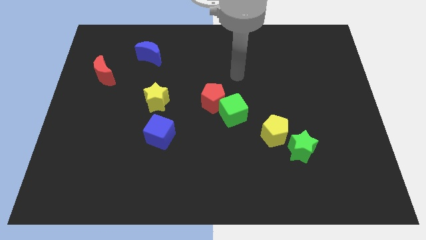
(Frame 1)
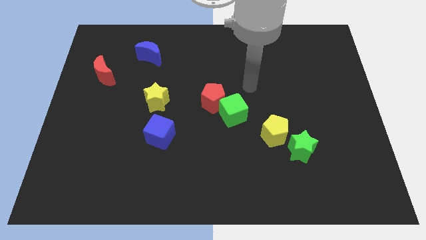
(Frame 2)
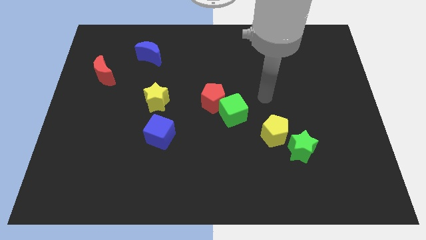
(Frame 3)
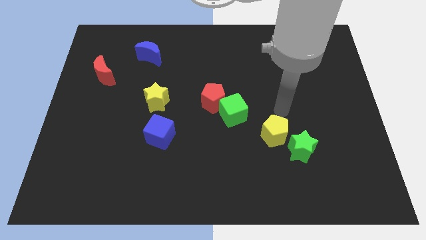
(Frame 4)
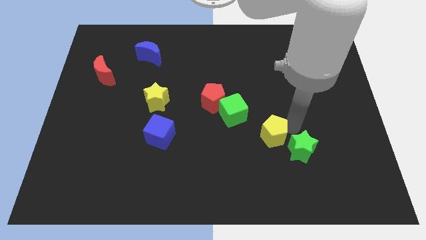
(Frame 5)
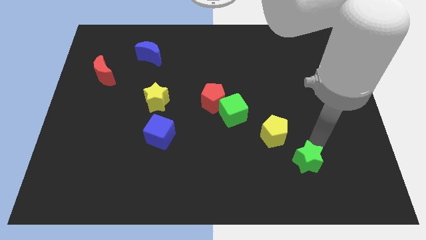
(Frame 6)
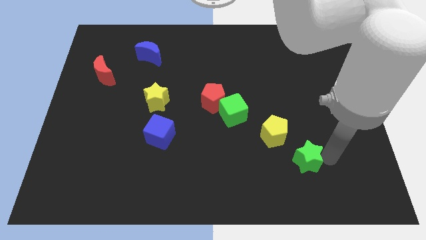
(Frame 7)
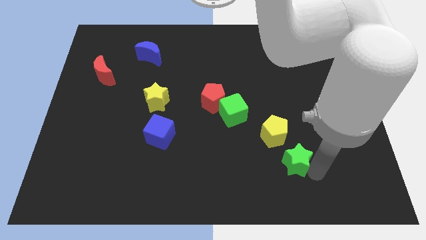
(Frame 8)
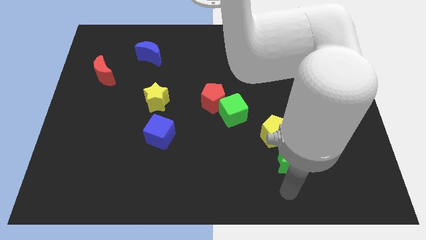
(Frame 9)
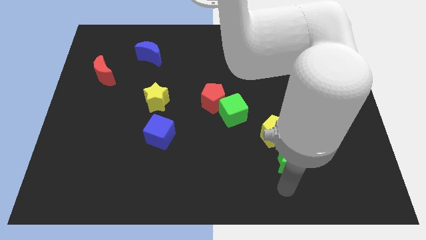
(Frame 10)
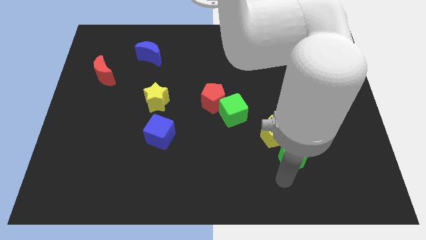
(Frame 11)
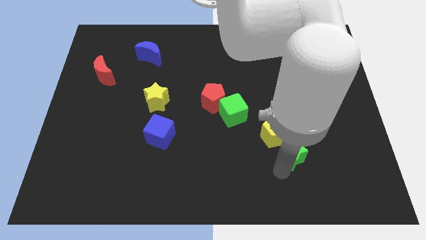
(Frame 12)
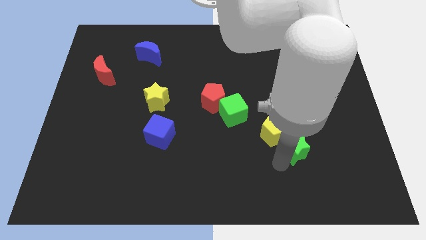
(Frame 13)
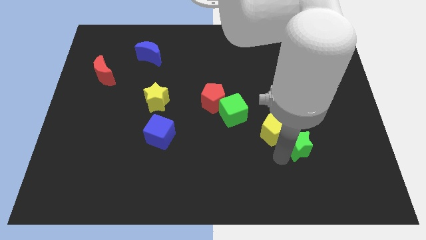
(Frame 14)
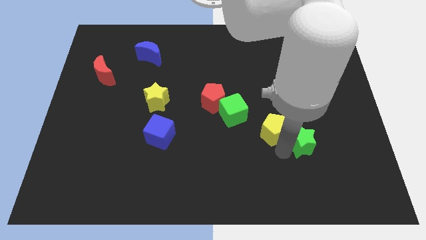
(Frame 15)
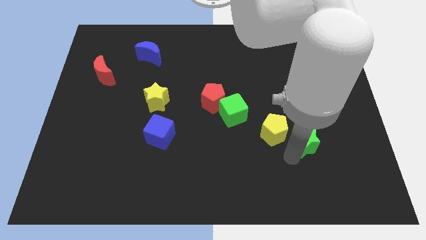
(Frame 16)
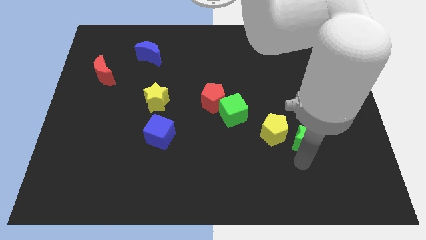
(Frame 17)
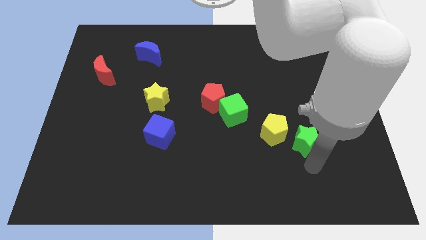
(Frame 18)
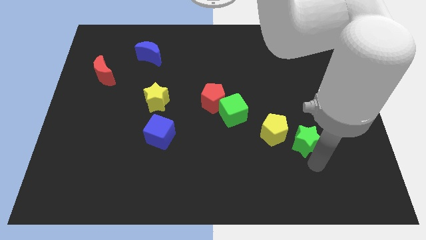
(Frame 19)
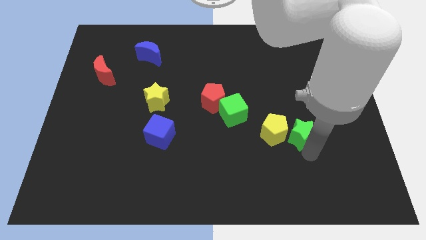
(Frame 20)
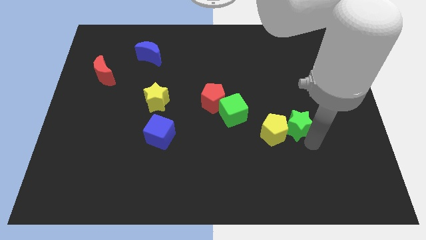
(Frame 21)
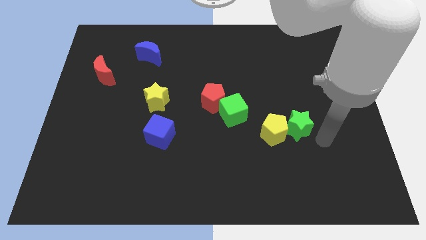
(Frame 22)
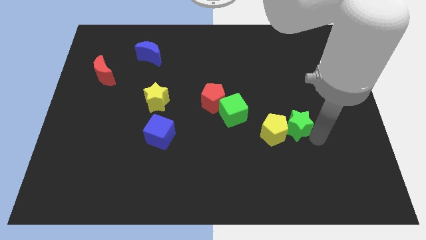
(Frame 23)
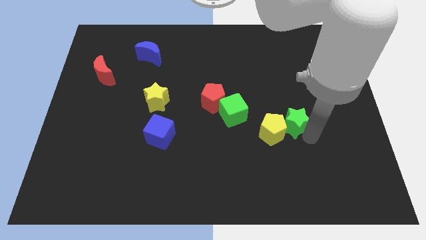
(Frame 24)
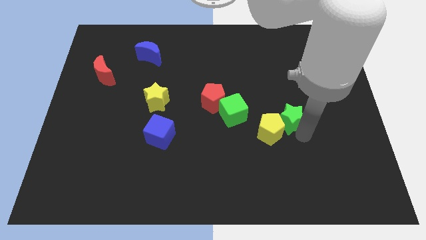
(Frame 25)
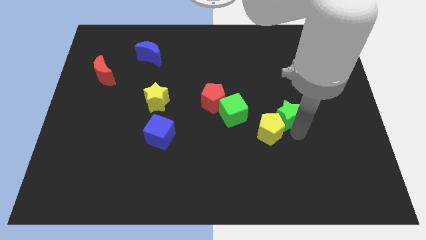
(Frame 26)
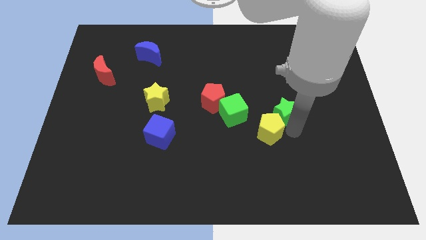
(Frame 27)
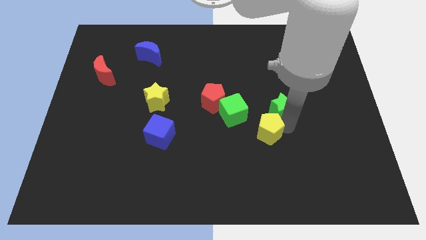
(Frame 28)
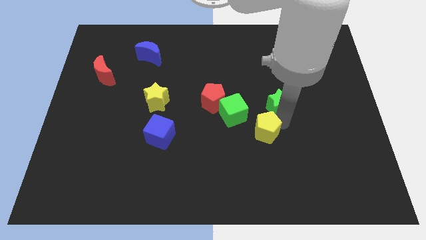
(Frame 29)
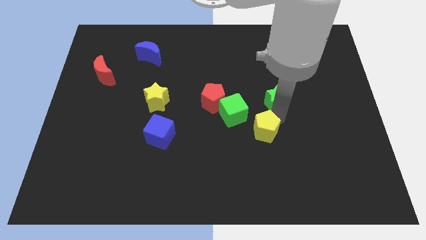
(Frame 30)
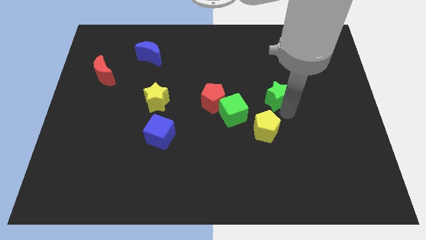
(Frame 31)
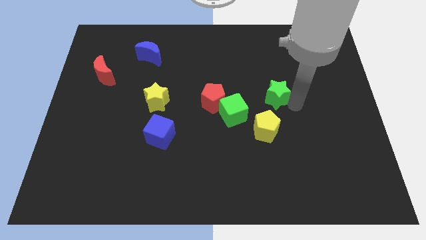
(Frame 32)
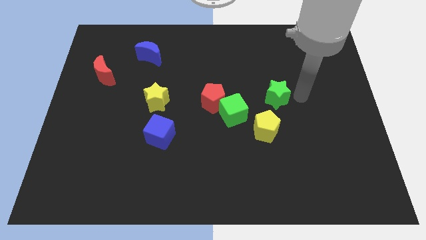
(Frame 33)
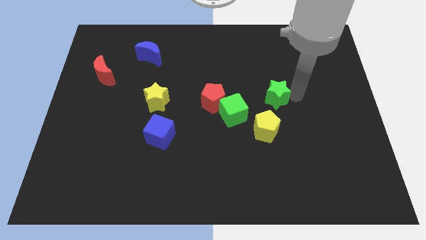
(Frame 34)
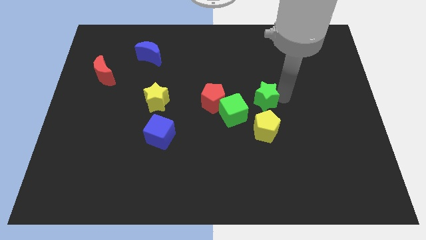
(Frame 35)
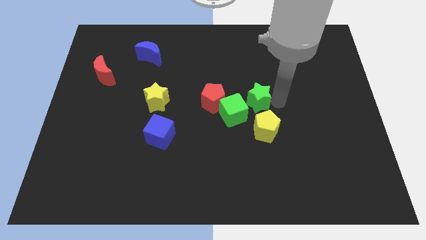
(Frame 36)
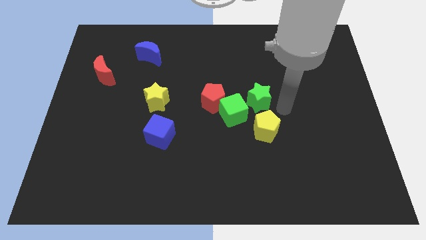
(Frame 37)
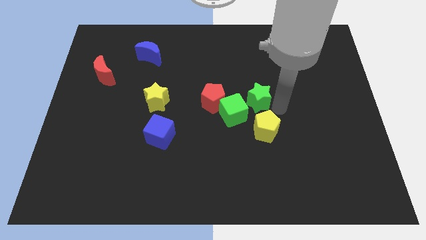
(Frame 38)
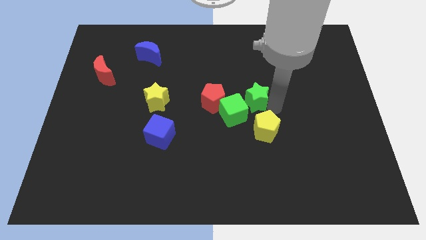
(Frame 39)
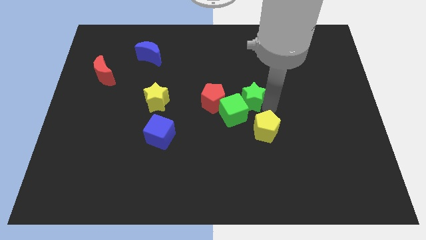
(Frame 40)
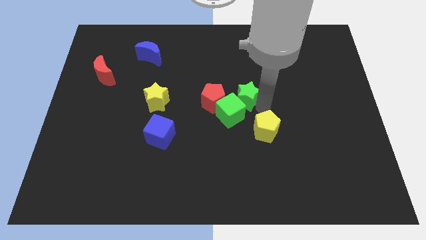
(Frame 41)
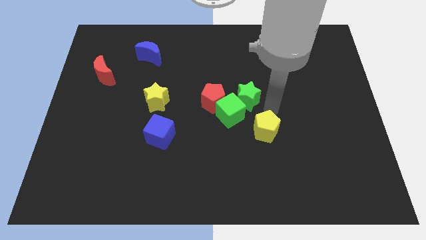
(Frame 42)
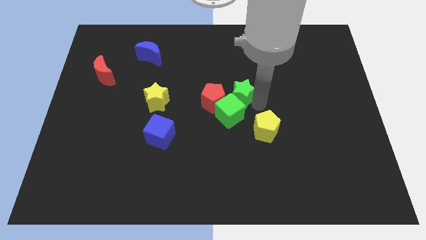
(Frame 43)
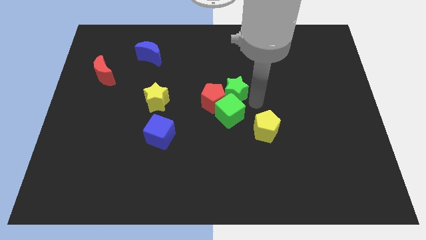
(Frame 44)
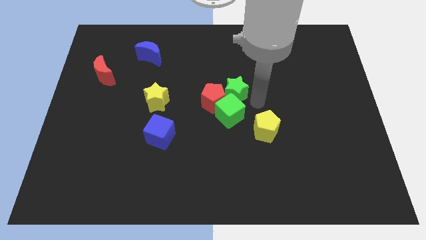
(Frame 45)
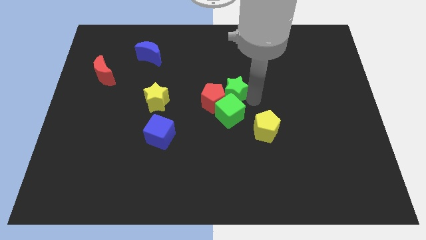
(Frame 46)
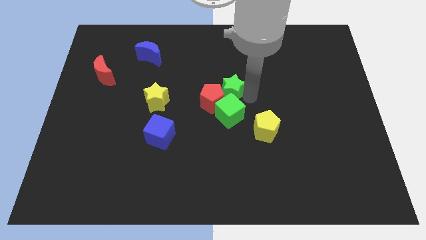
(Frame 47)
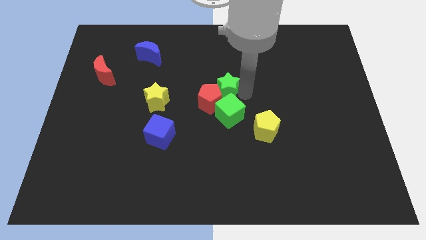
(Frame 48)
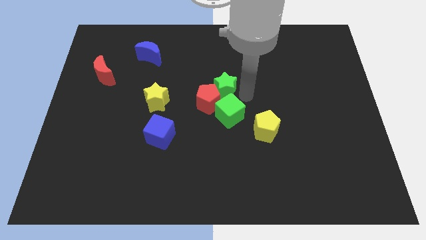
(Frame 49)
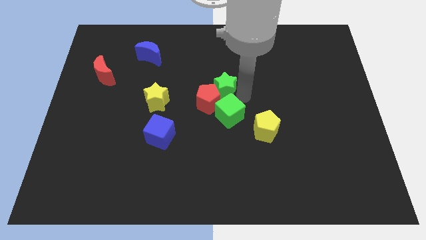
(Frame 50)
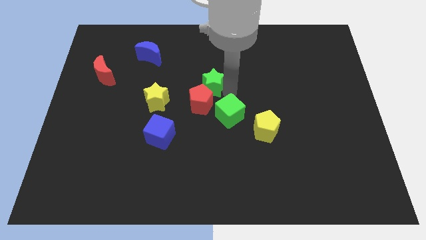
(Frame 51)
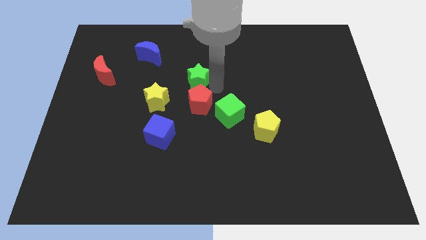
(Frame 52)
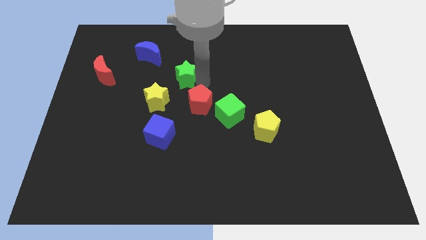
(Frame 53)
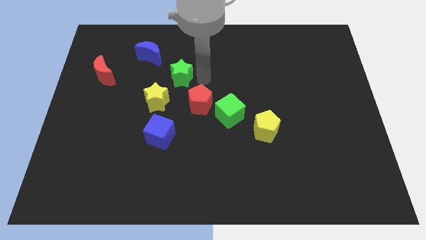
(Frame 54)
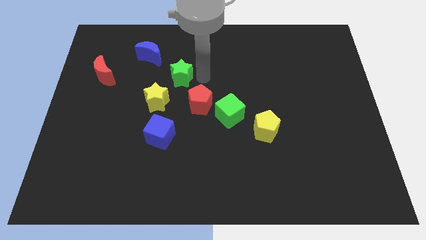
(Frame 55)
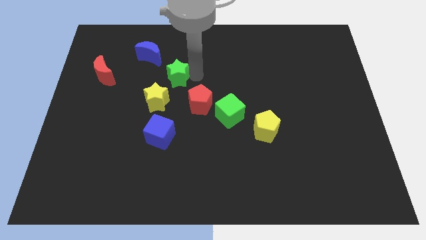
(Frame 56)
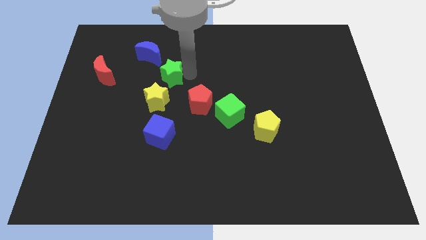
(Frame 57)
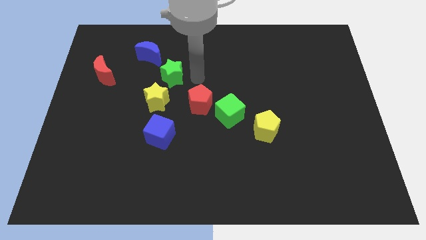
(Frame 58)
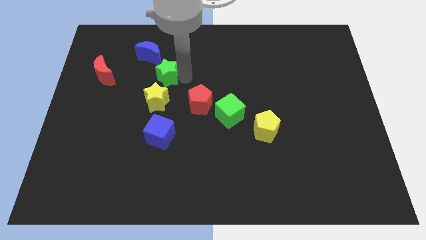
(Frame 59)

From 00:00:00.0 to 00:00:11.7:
push the green star right of the red moon
